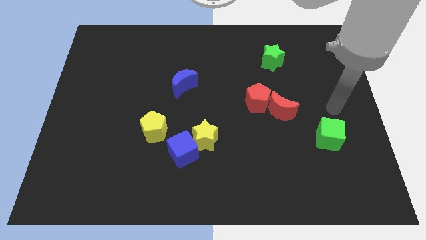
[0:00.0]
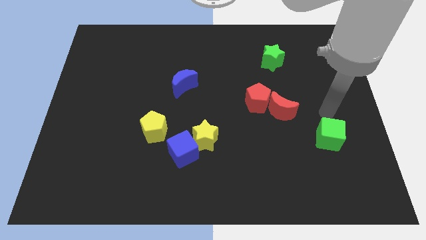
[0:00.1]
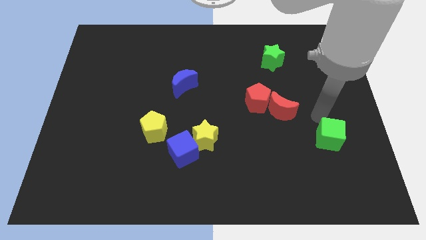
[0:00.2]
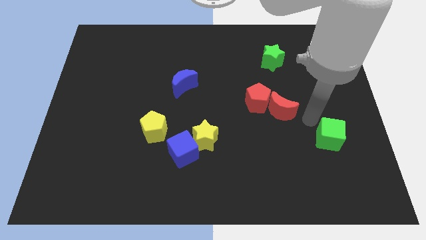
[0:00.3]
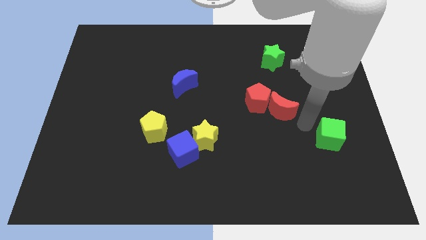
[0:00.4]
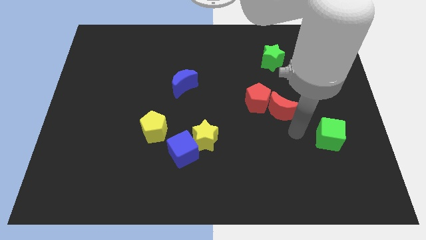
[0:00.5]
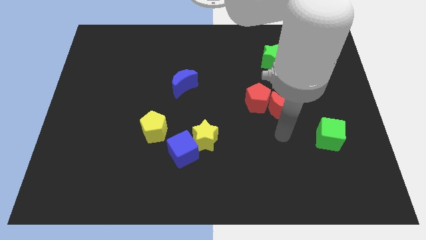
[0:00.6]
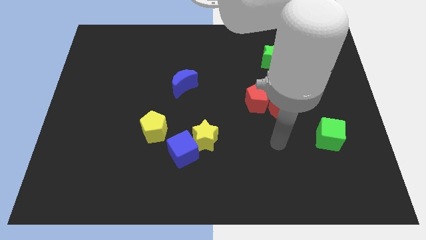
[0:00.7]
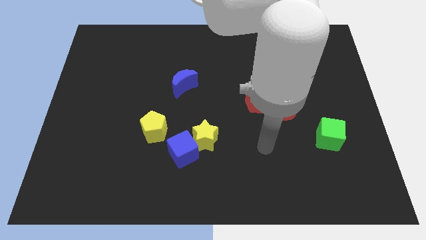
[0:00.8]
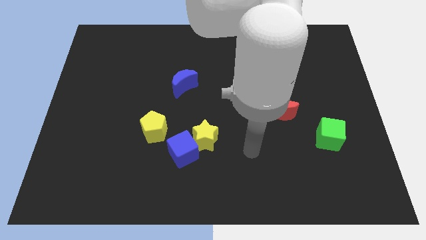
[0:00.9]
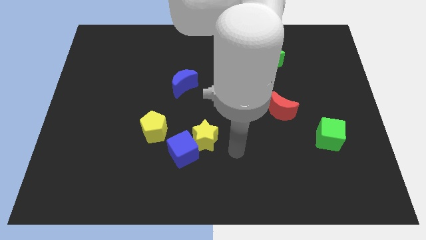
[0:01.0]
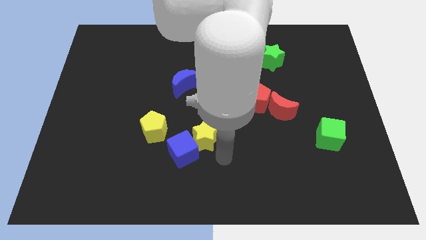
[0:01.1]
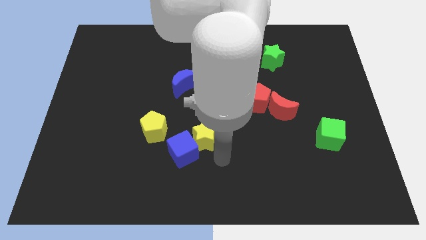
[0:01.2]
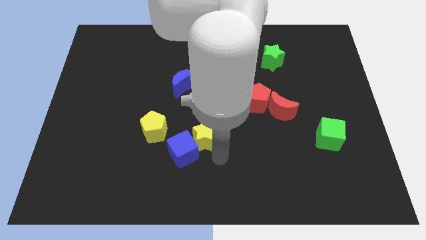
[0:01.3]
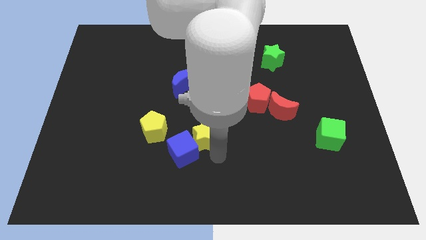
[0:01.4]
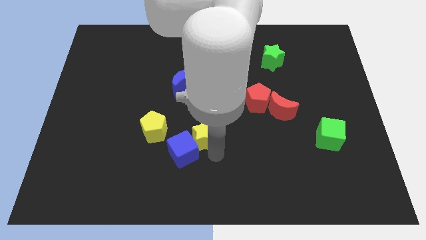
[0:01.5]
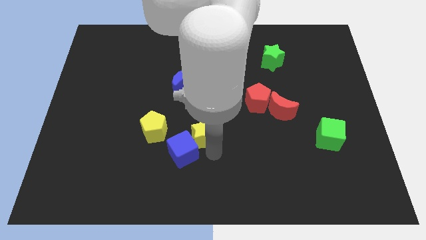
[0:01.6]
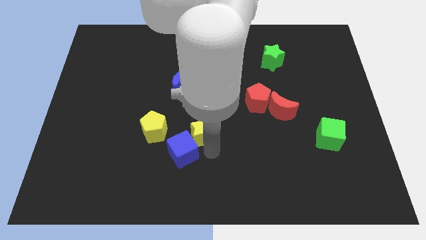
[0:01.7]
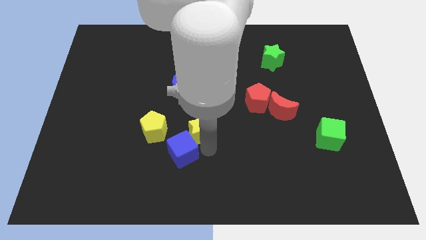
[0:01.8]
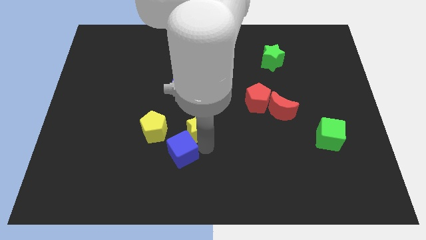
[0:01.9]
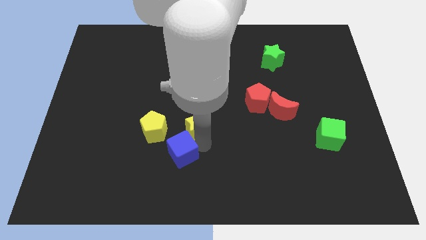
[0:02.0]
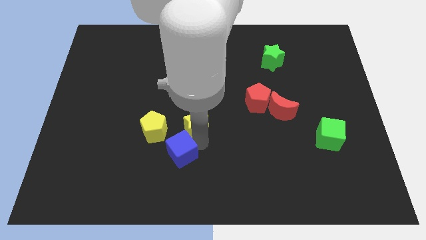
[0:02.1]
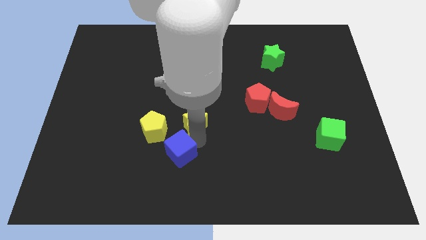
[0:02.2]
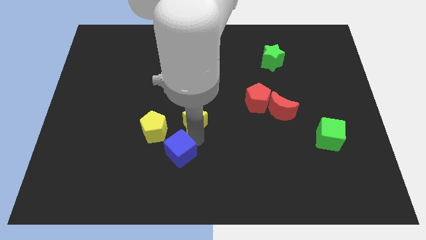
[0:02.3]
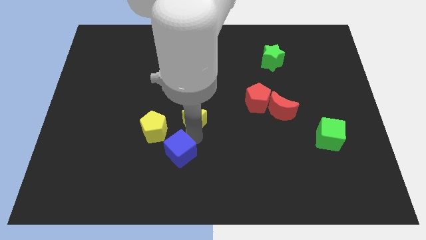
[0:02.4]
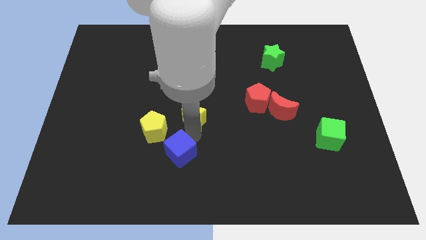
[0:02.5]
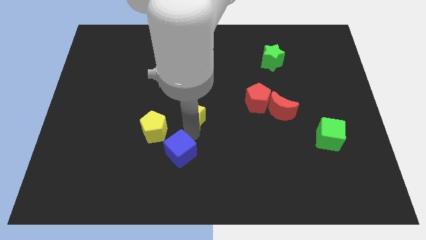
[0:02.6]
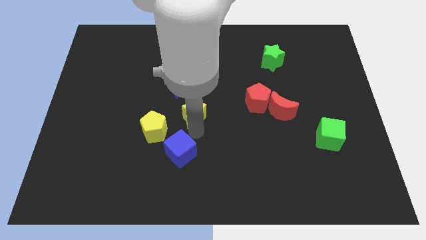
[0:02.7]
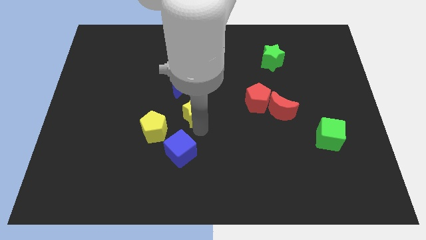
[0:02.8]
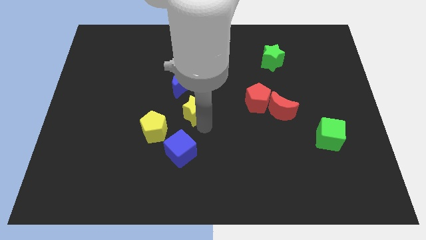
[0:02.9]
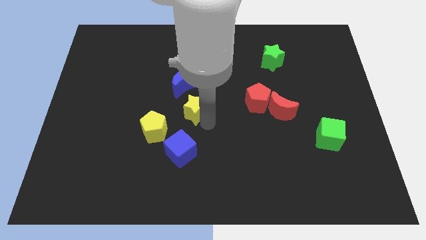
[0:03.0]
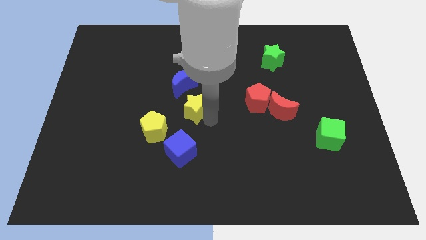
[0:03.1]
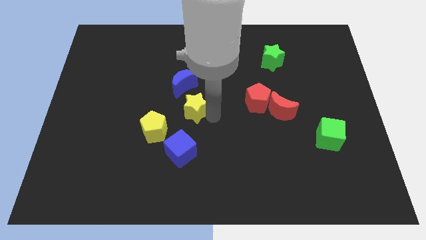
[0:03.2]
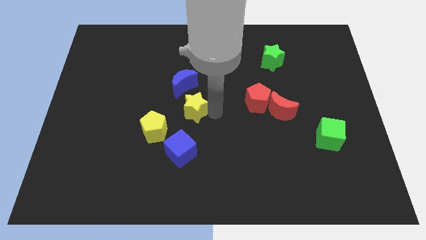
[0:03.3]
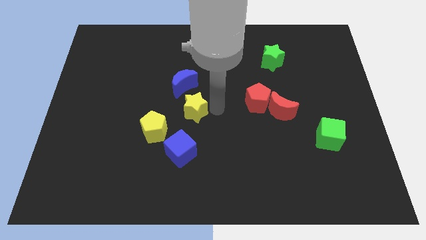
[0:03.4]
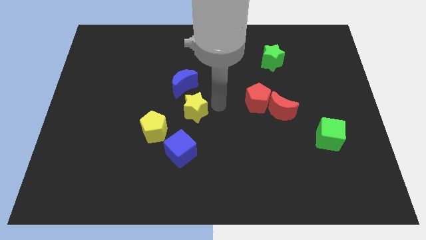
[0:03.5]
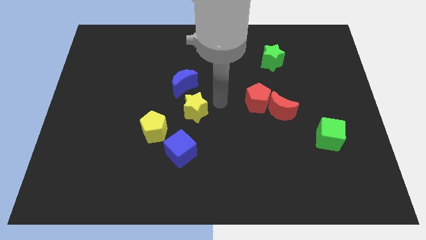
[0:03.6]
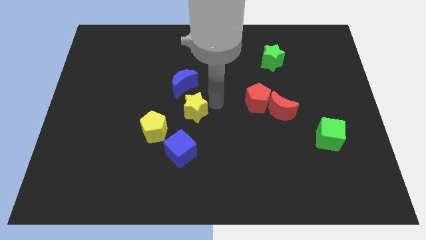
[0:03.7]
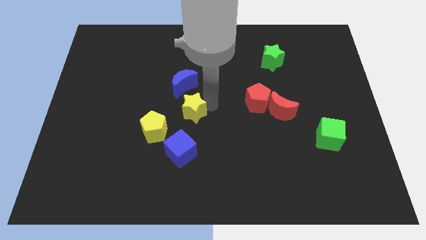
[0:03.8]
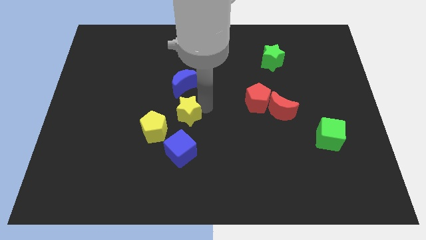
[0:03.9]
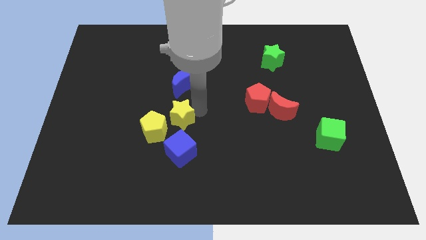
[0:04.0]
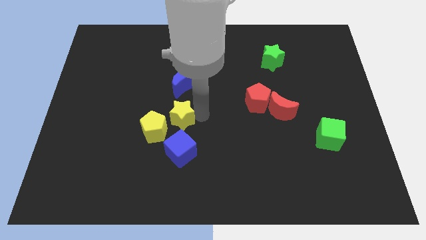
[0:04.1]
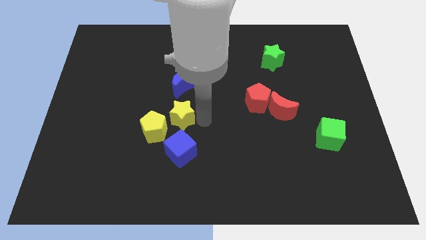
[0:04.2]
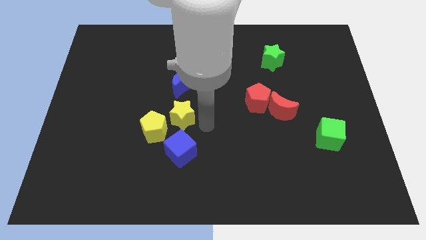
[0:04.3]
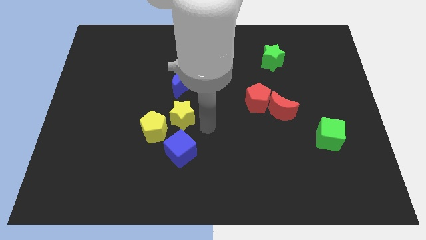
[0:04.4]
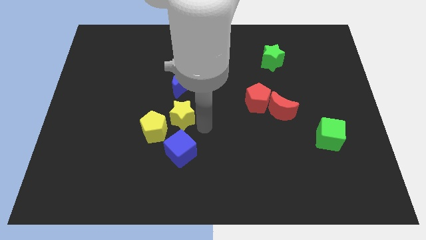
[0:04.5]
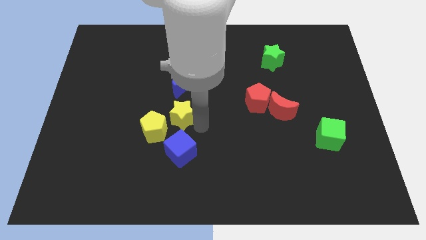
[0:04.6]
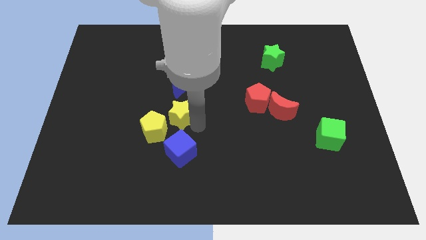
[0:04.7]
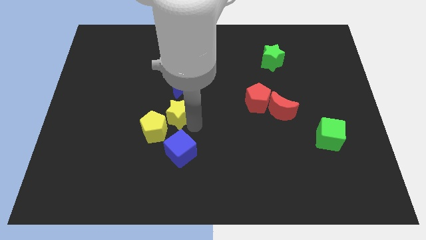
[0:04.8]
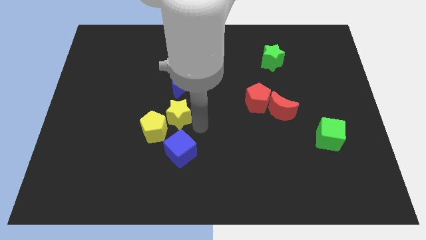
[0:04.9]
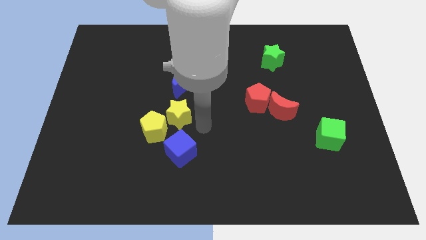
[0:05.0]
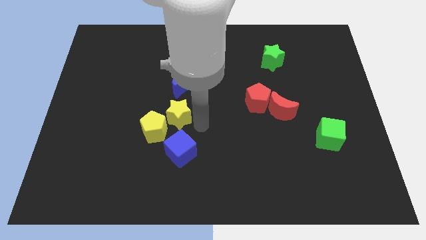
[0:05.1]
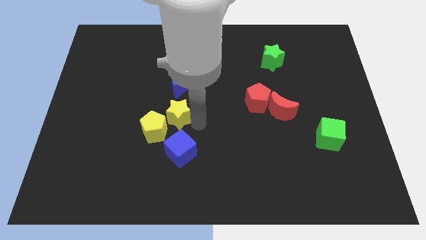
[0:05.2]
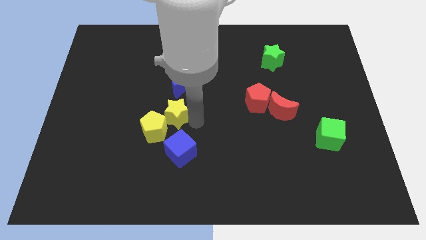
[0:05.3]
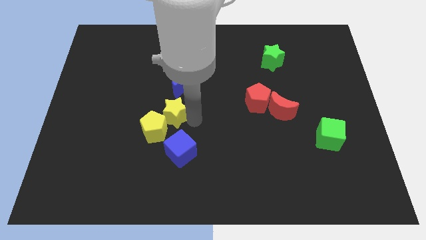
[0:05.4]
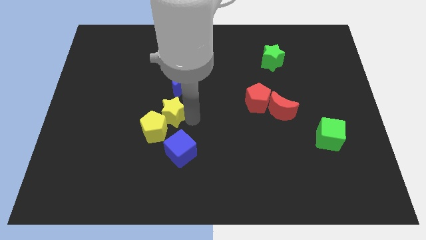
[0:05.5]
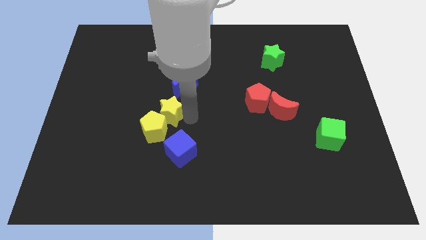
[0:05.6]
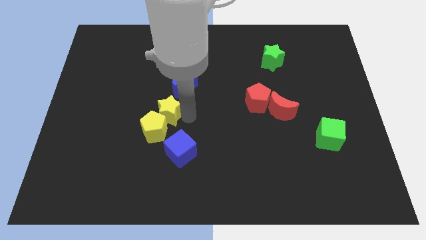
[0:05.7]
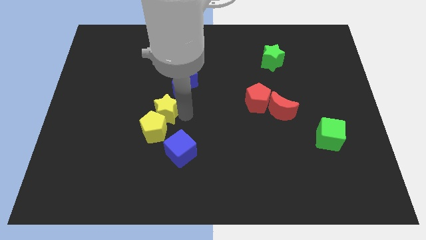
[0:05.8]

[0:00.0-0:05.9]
slightly push the yellow star to the left

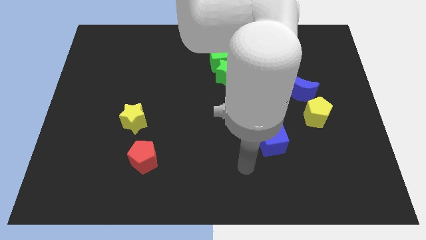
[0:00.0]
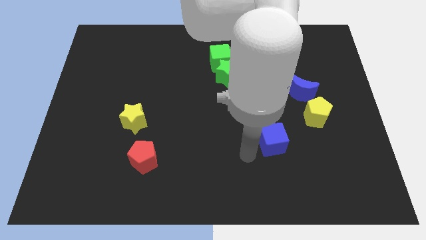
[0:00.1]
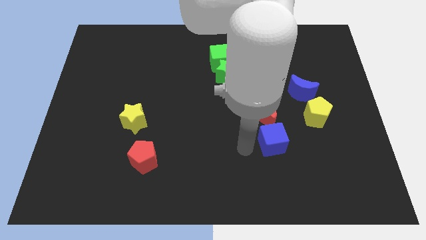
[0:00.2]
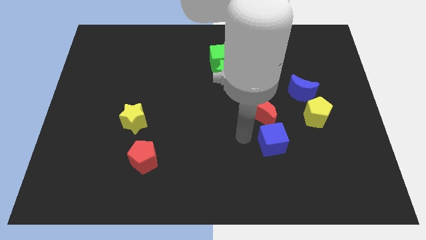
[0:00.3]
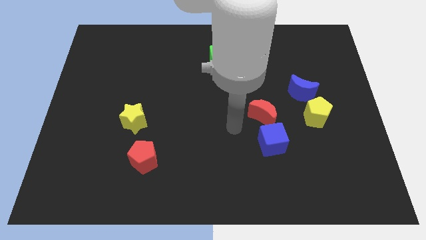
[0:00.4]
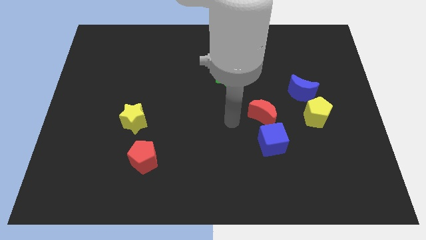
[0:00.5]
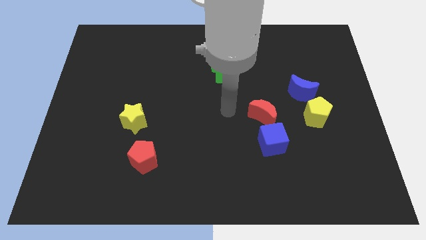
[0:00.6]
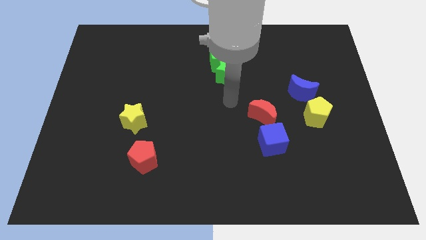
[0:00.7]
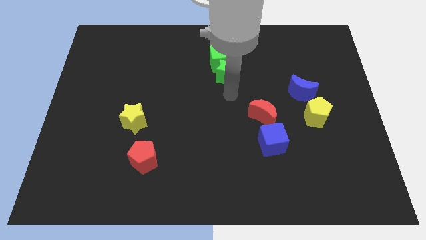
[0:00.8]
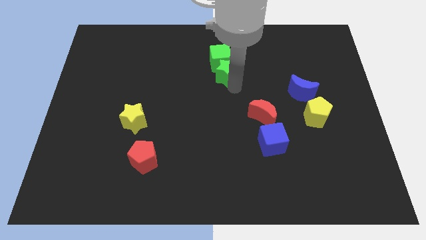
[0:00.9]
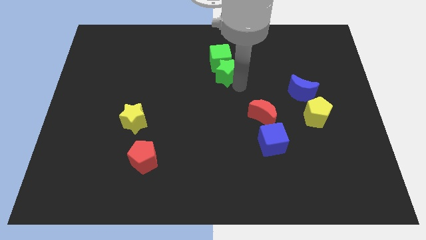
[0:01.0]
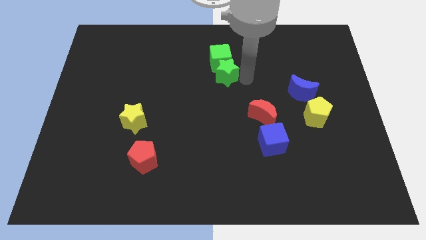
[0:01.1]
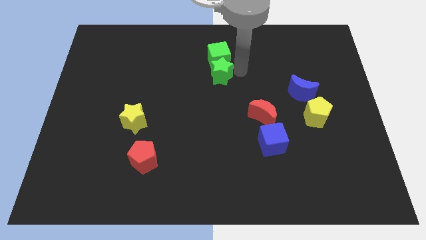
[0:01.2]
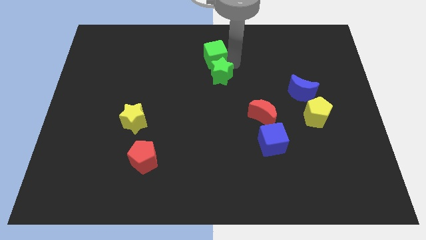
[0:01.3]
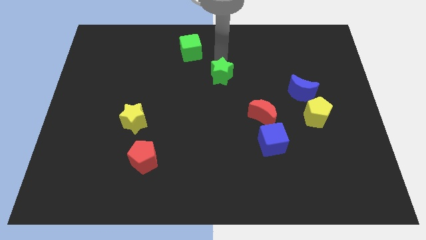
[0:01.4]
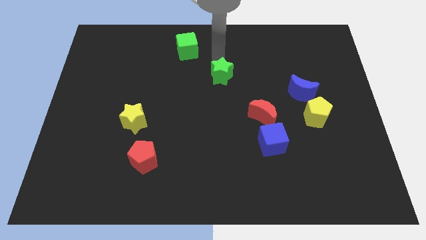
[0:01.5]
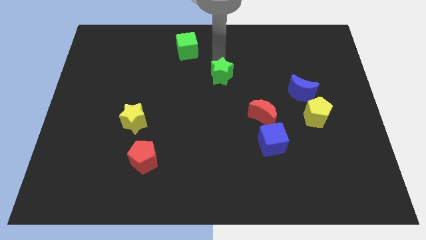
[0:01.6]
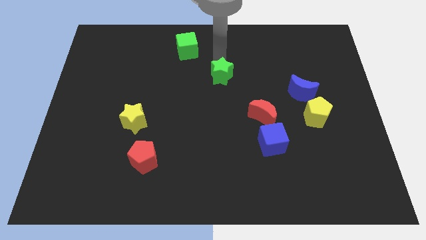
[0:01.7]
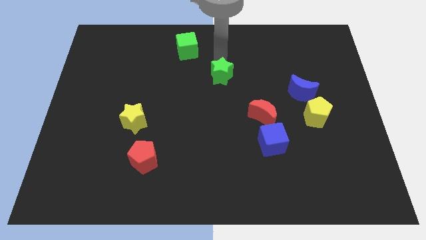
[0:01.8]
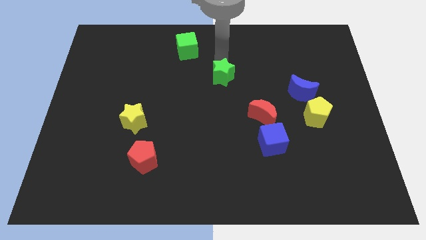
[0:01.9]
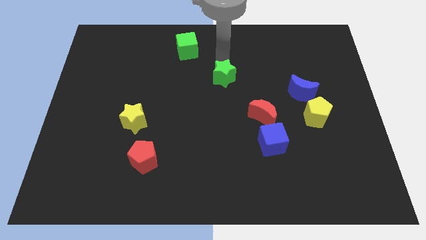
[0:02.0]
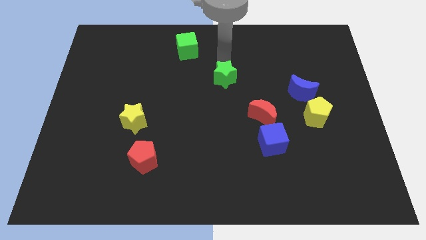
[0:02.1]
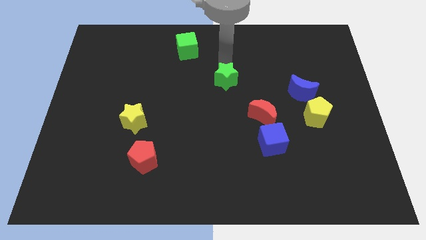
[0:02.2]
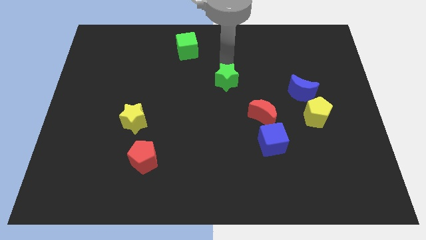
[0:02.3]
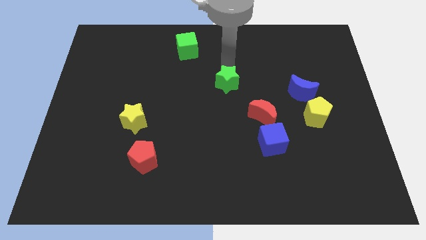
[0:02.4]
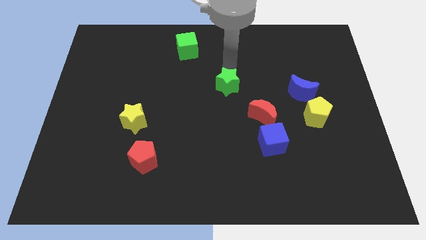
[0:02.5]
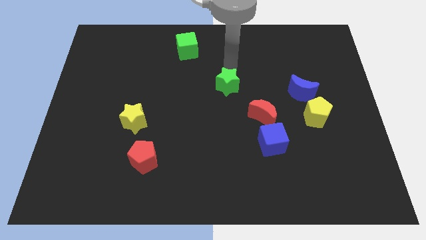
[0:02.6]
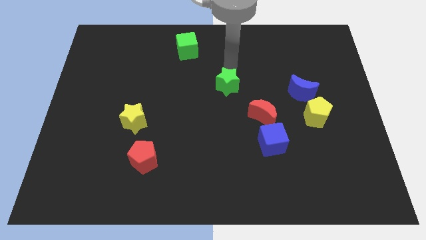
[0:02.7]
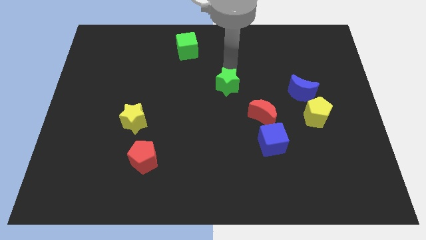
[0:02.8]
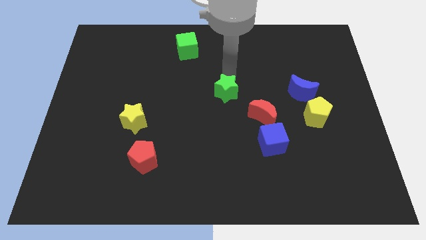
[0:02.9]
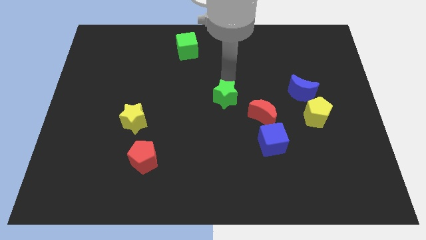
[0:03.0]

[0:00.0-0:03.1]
slide the green star a bit downwards
